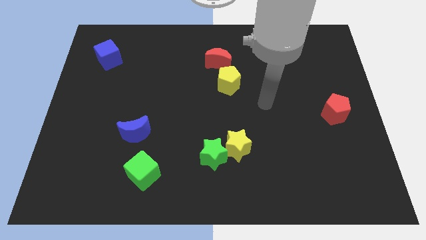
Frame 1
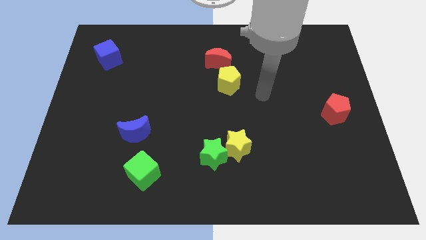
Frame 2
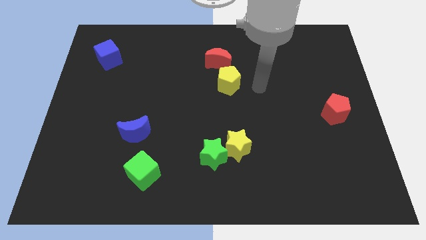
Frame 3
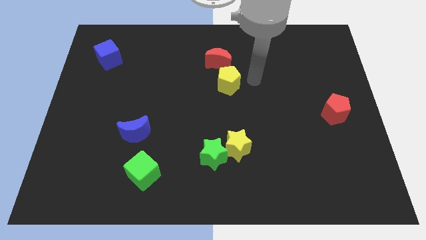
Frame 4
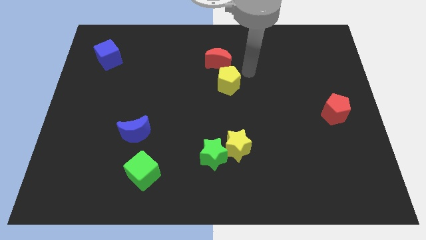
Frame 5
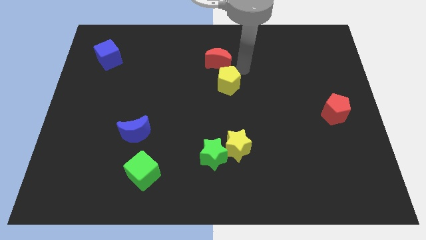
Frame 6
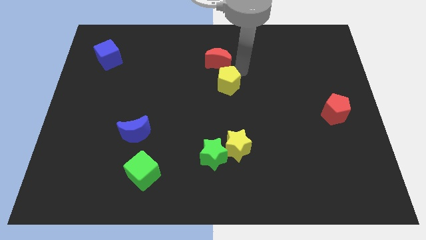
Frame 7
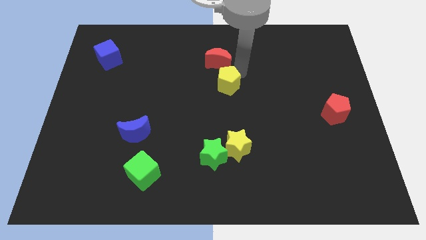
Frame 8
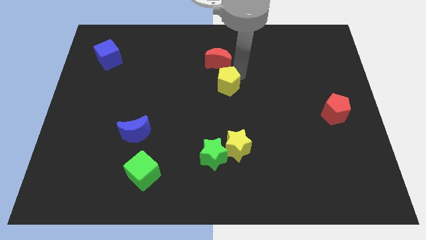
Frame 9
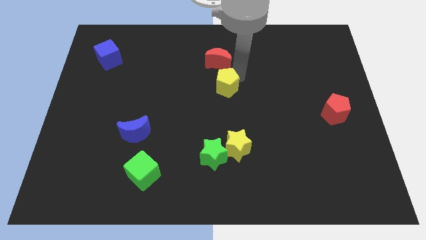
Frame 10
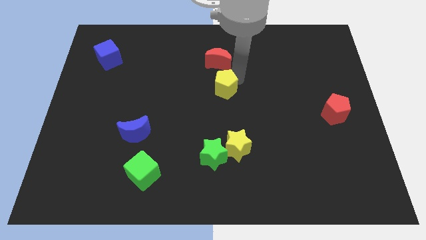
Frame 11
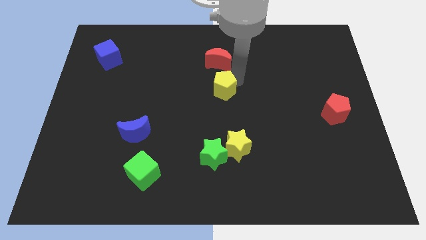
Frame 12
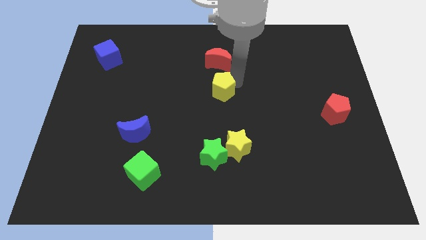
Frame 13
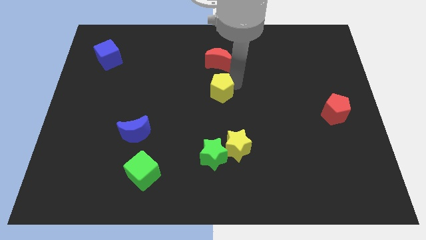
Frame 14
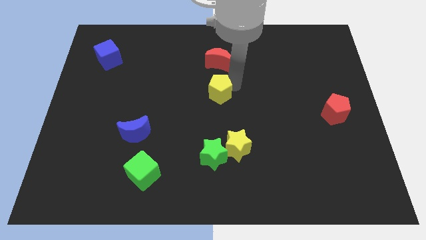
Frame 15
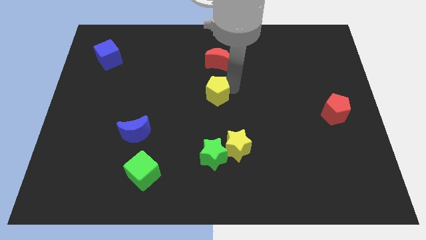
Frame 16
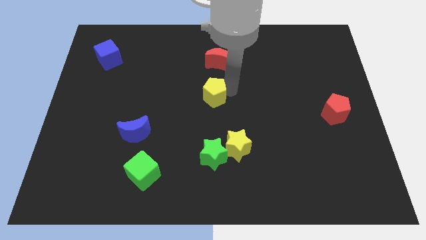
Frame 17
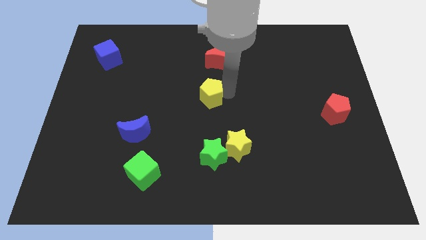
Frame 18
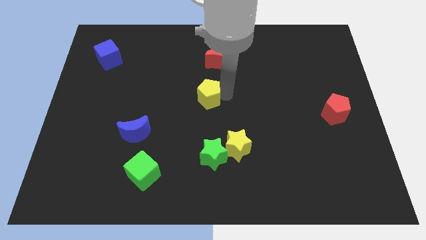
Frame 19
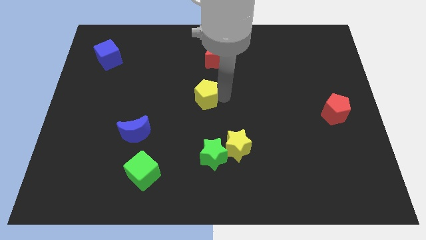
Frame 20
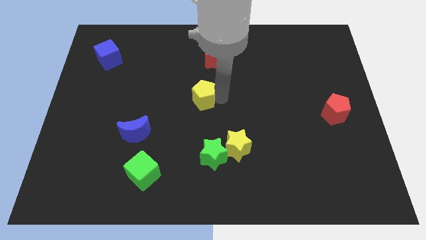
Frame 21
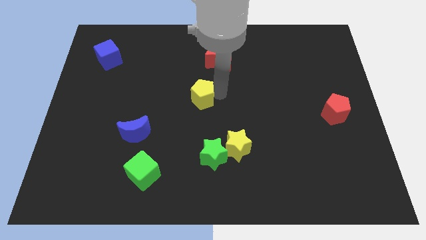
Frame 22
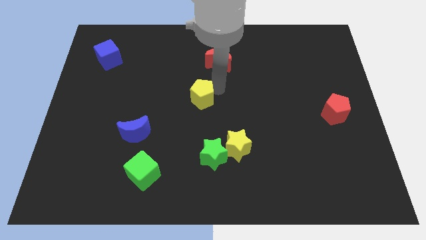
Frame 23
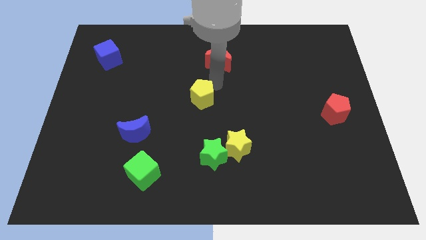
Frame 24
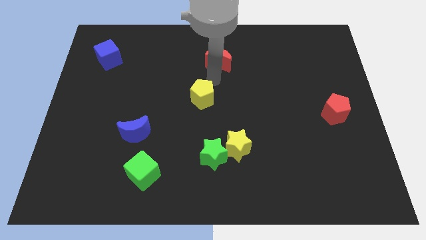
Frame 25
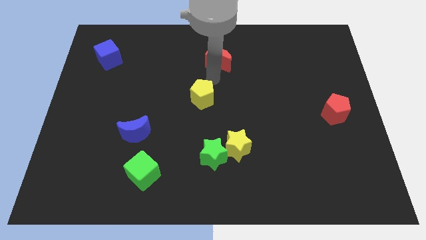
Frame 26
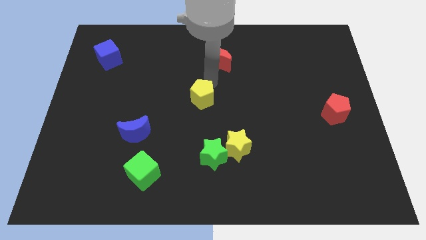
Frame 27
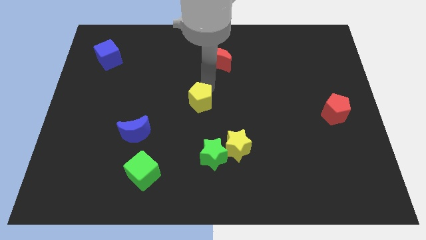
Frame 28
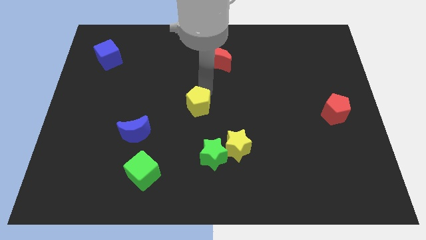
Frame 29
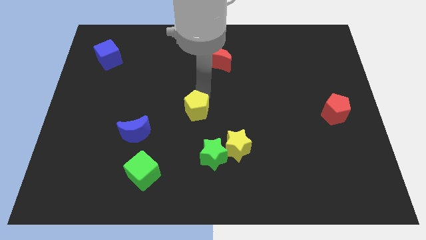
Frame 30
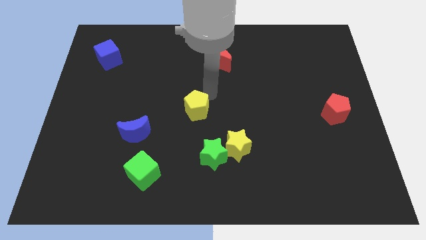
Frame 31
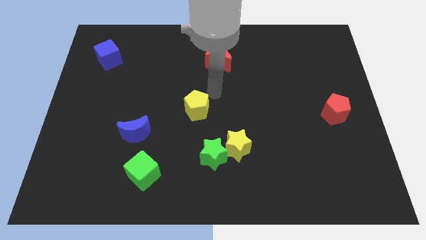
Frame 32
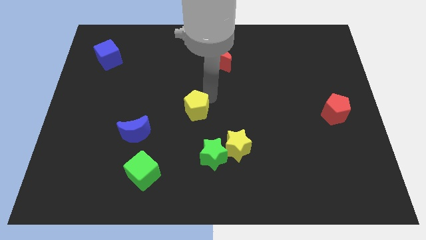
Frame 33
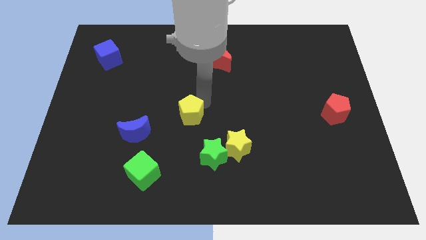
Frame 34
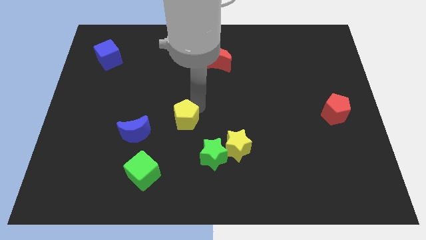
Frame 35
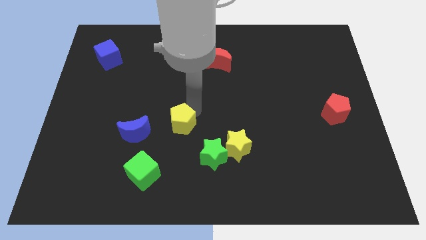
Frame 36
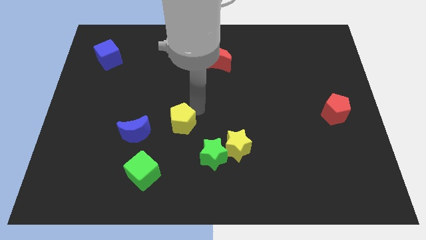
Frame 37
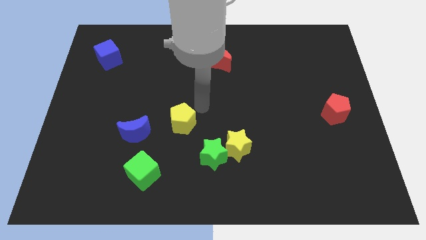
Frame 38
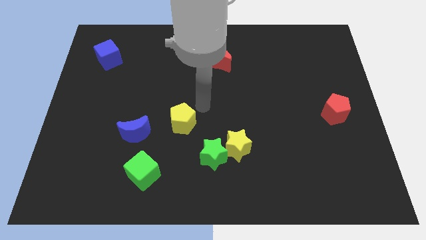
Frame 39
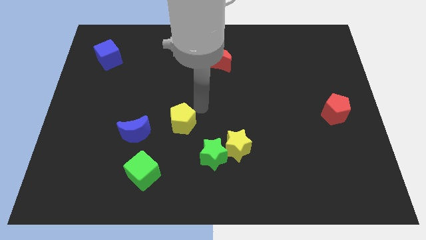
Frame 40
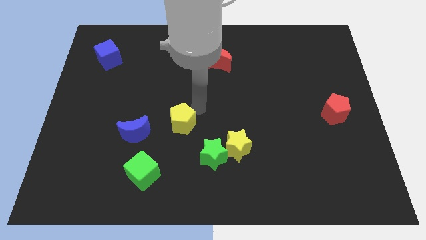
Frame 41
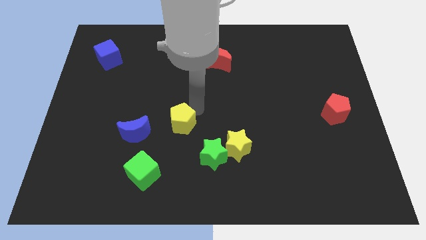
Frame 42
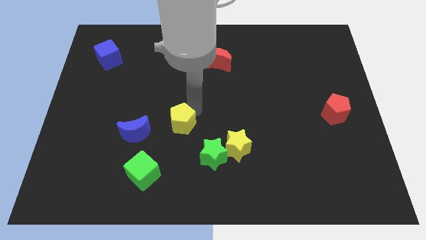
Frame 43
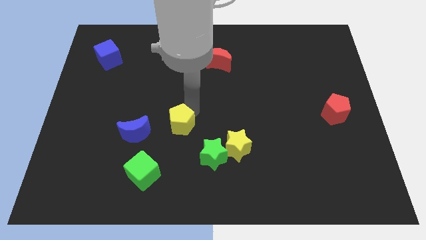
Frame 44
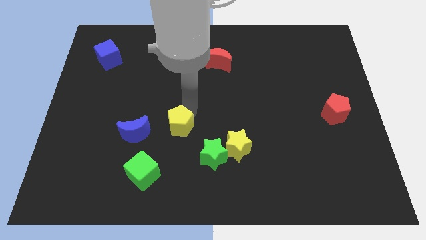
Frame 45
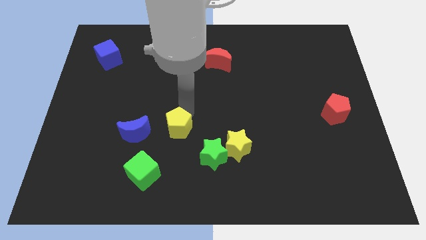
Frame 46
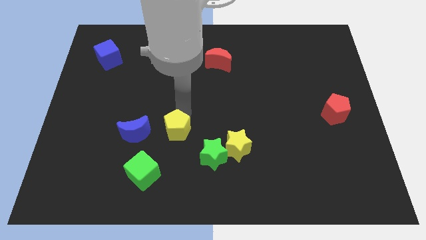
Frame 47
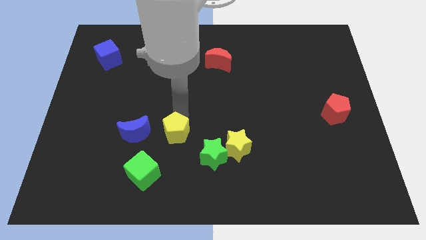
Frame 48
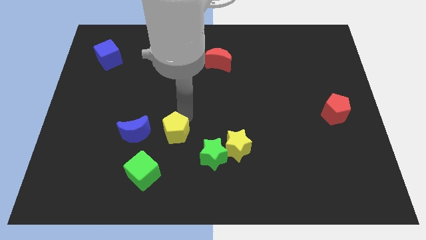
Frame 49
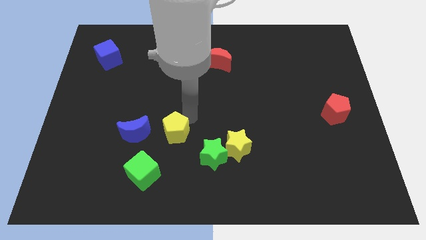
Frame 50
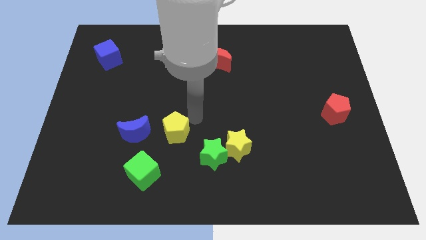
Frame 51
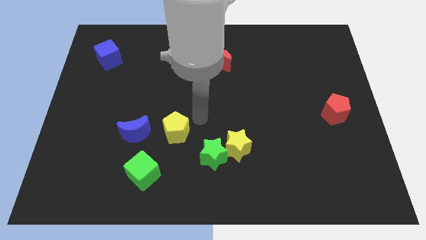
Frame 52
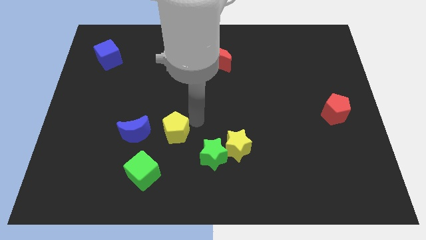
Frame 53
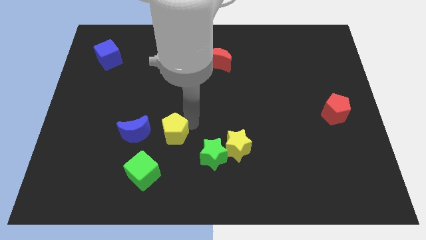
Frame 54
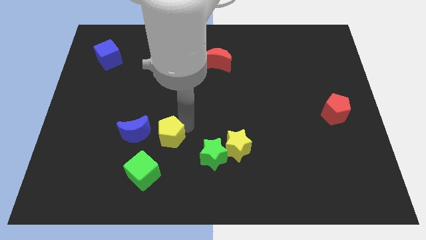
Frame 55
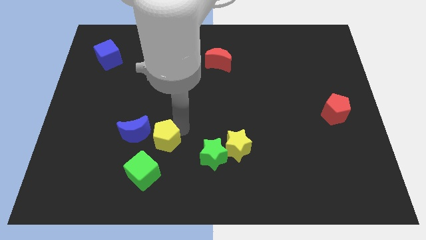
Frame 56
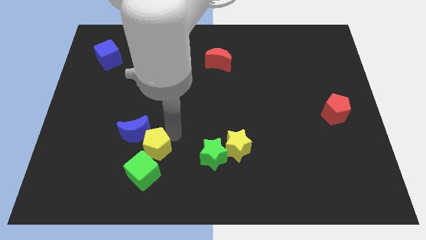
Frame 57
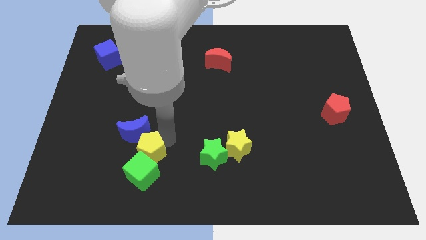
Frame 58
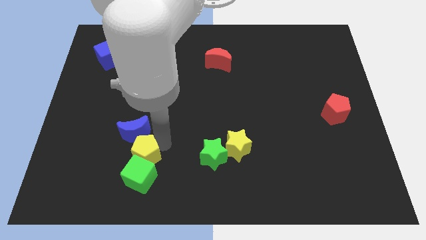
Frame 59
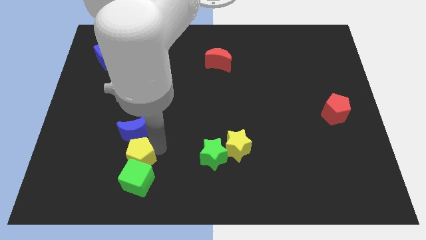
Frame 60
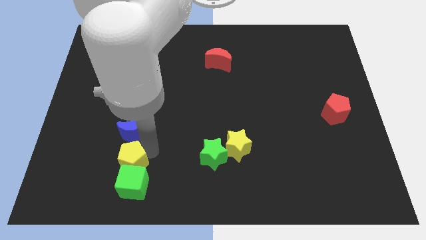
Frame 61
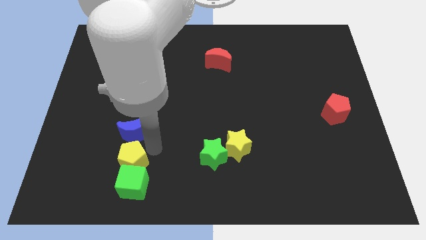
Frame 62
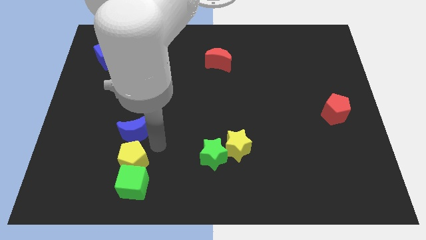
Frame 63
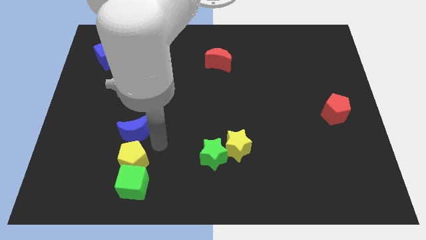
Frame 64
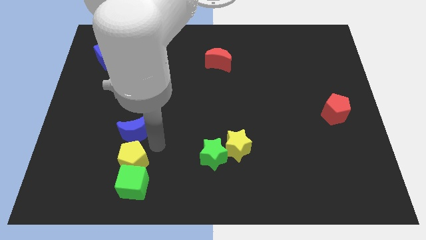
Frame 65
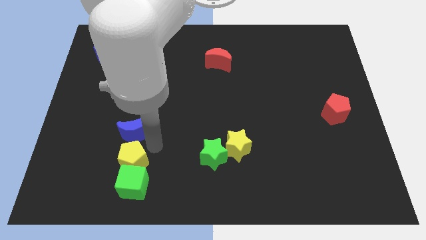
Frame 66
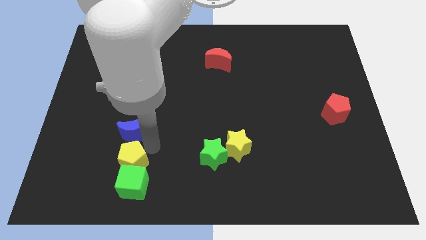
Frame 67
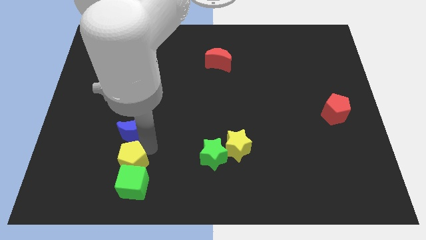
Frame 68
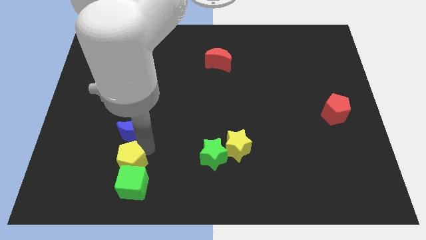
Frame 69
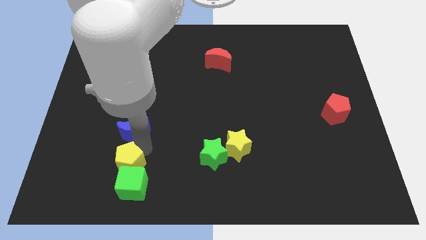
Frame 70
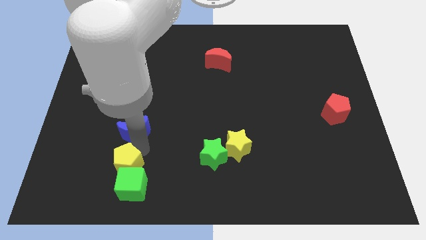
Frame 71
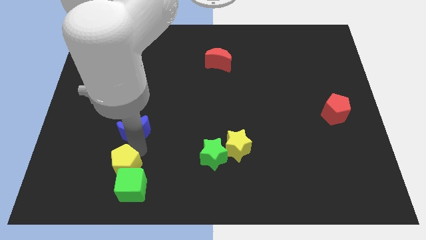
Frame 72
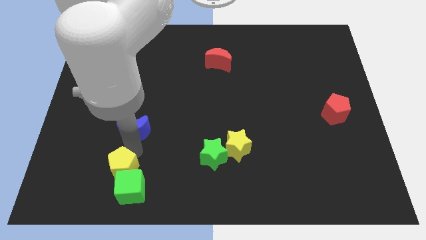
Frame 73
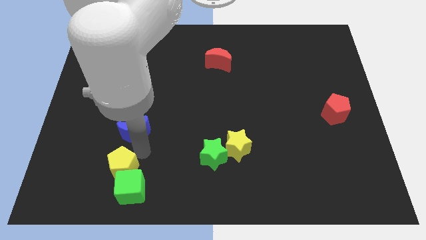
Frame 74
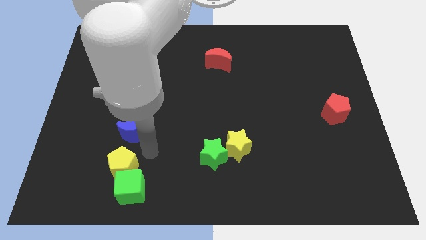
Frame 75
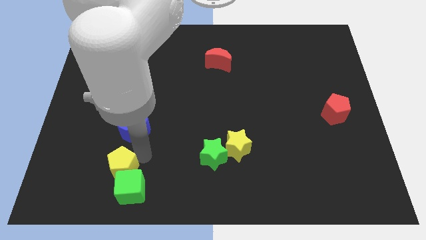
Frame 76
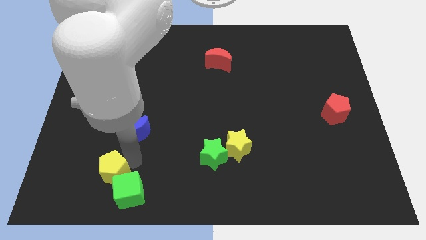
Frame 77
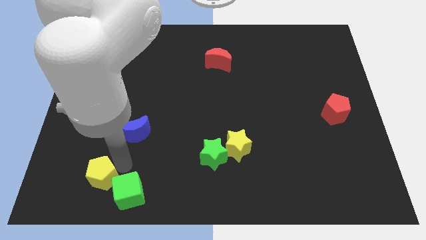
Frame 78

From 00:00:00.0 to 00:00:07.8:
slide the yellow pentagon to the left of the green cube
